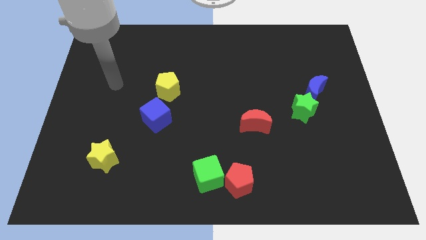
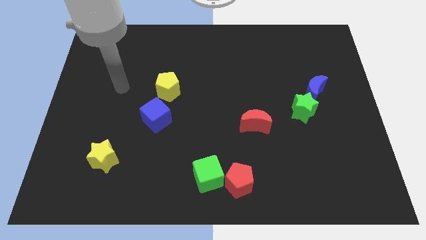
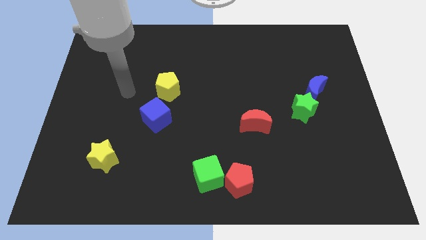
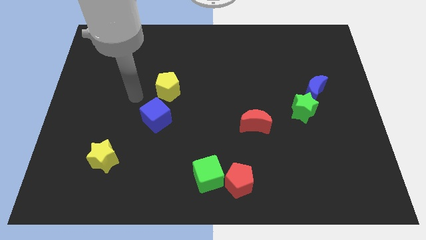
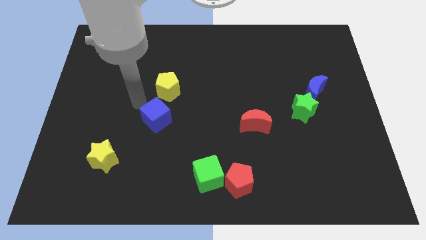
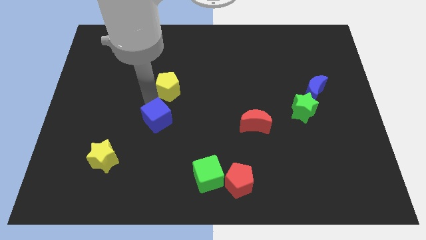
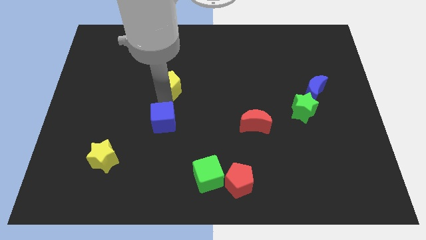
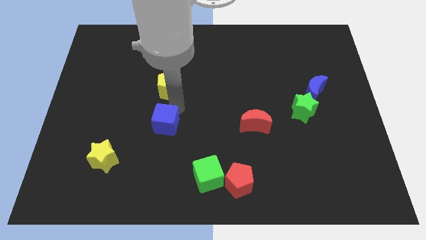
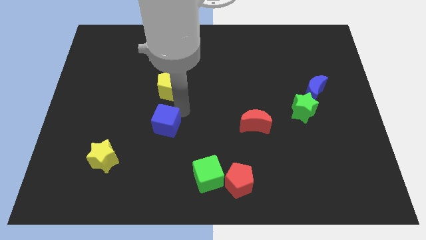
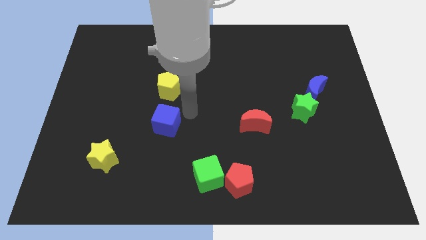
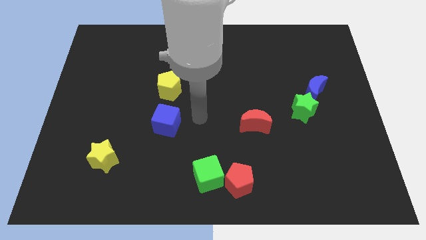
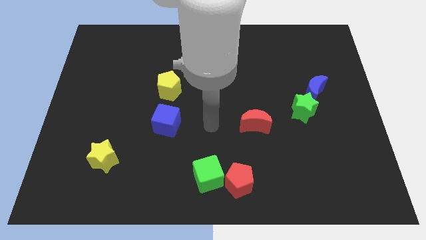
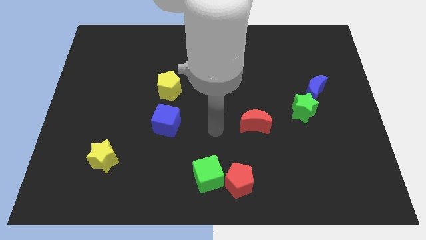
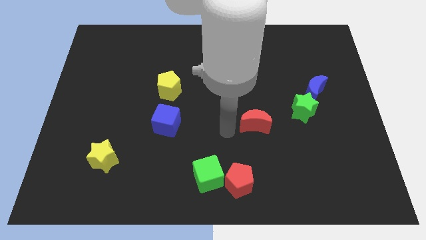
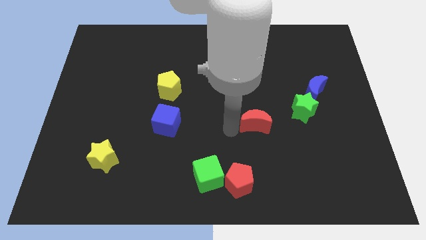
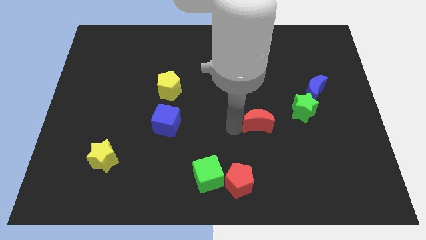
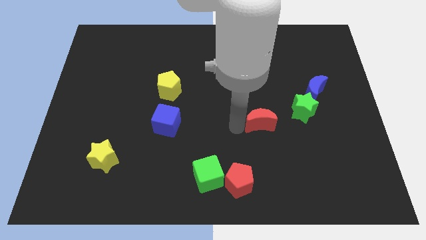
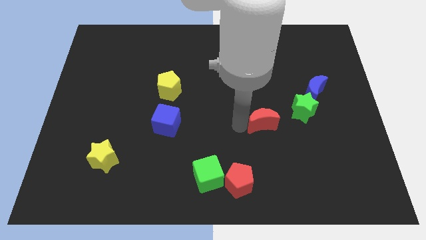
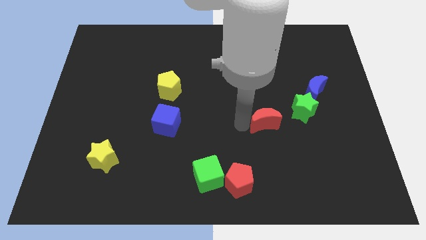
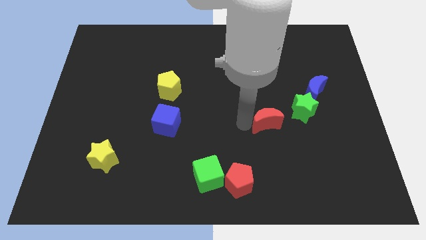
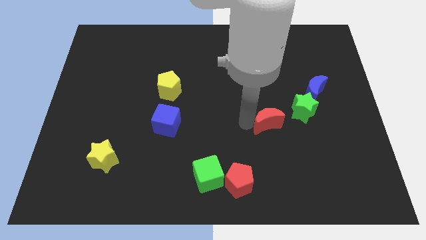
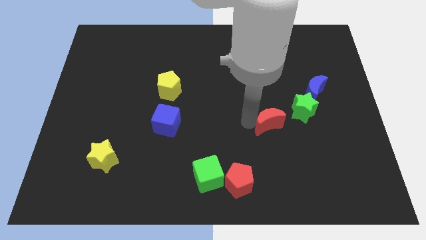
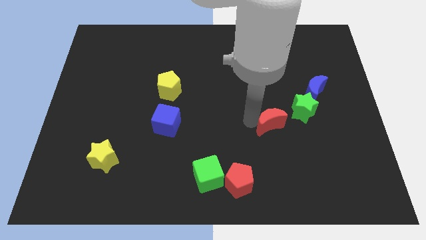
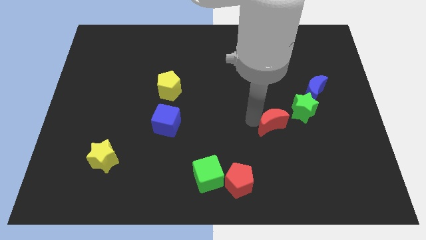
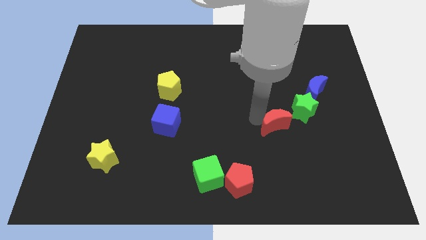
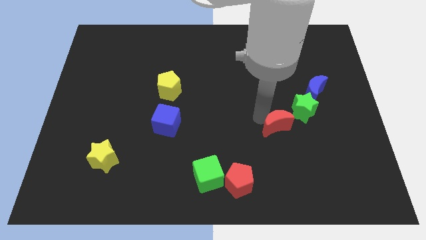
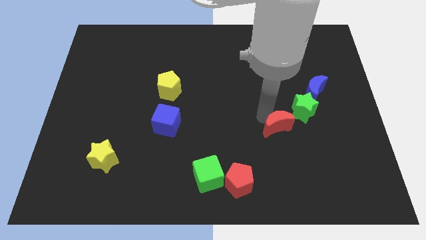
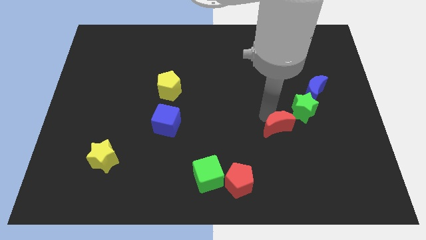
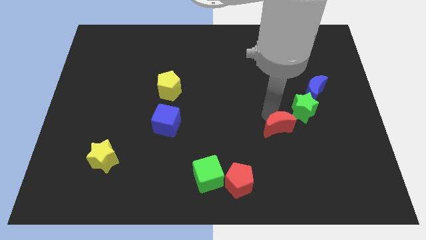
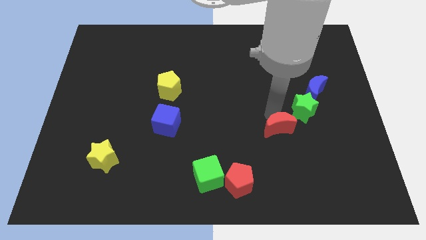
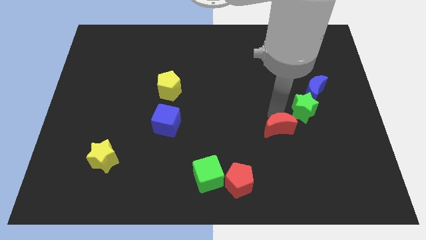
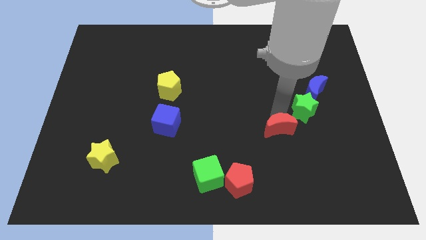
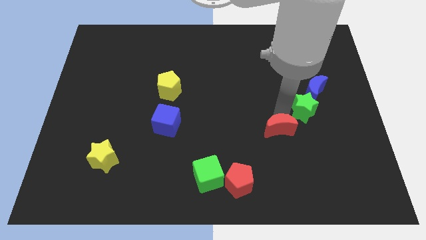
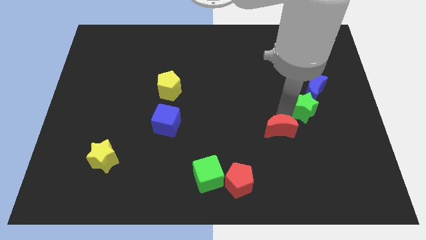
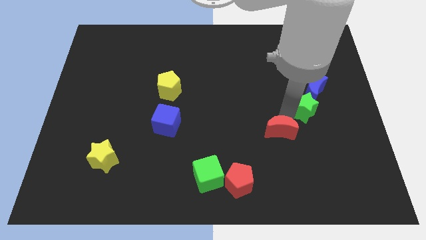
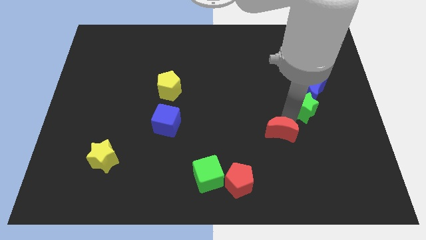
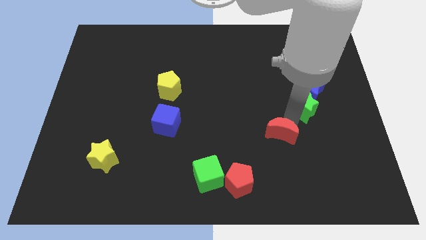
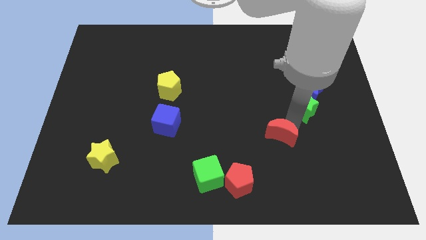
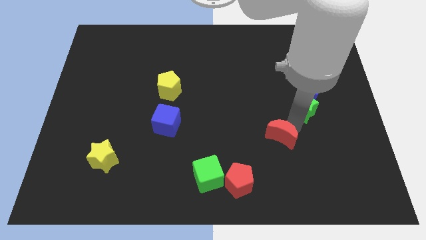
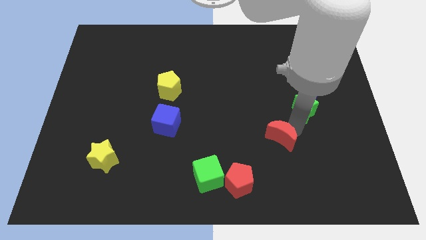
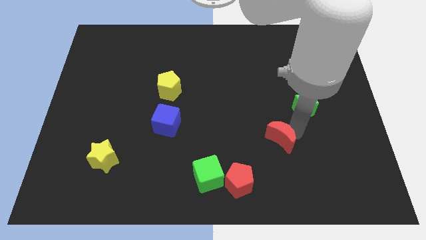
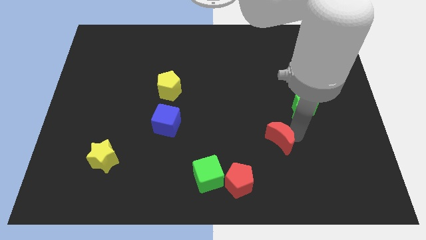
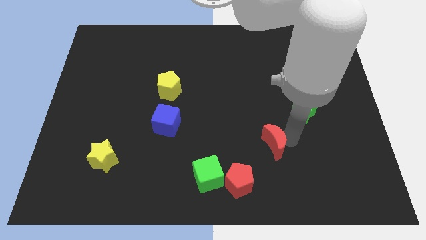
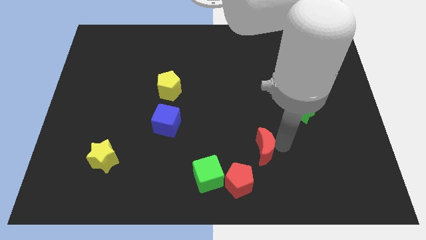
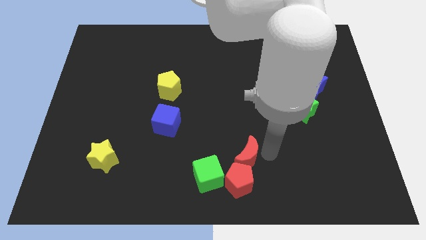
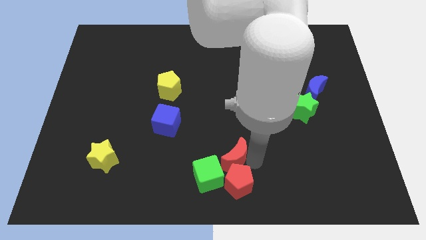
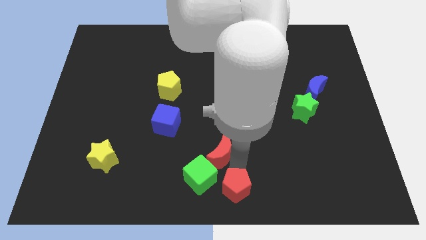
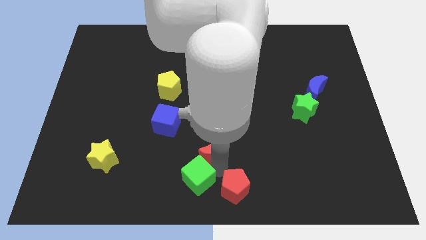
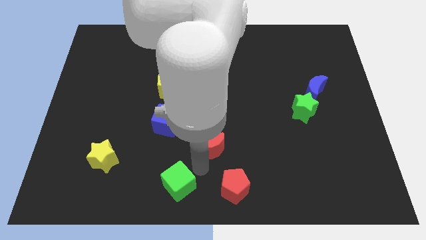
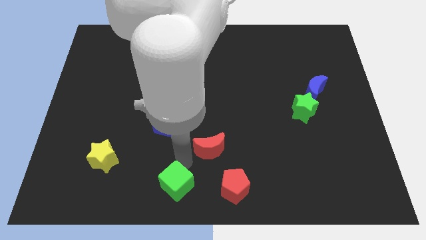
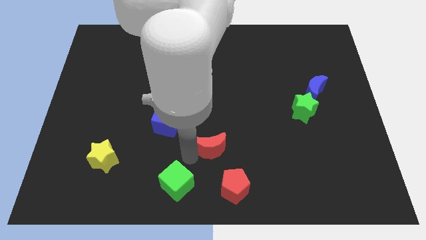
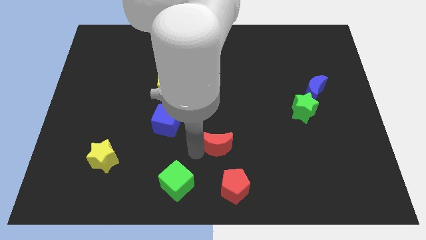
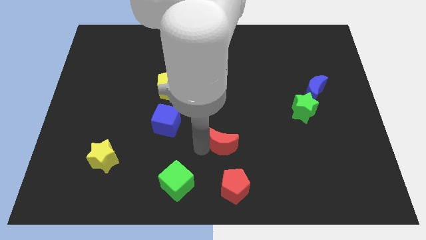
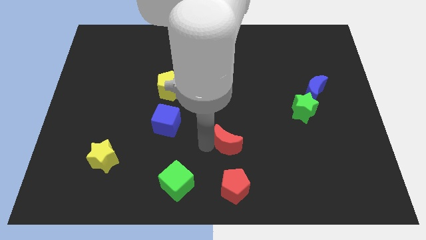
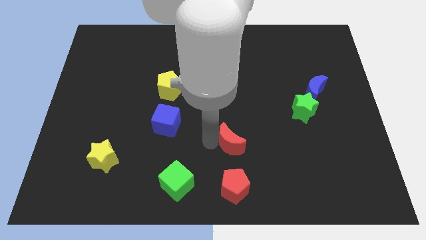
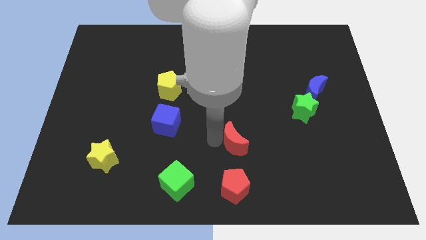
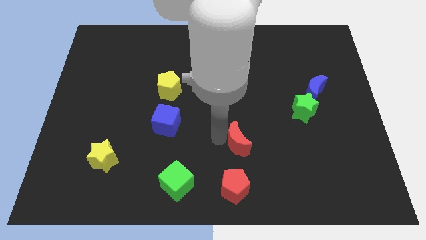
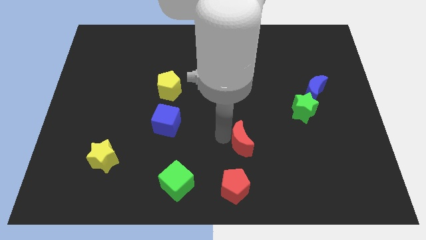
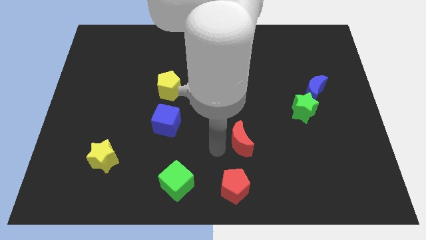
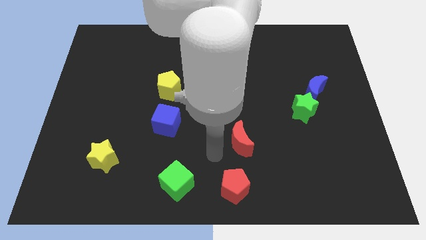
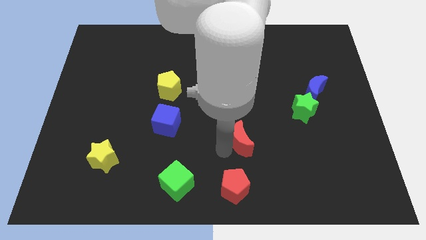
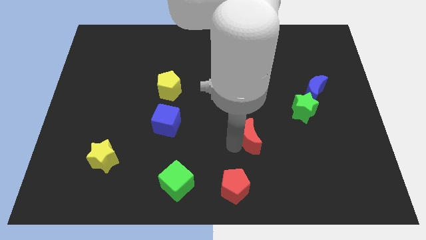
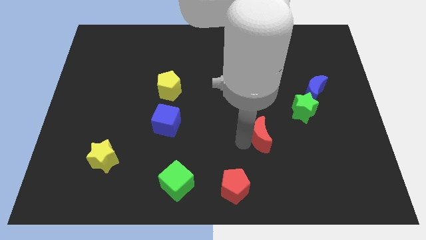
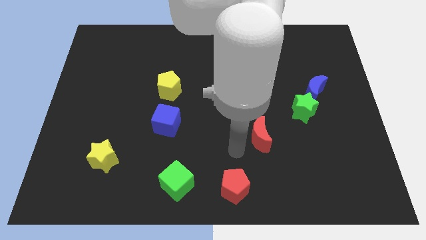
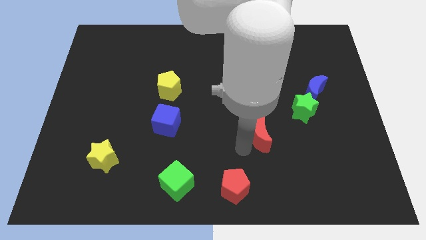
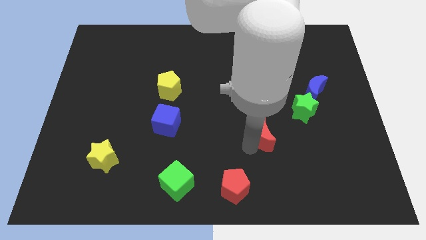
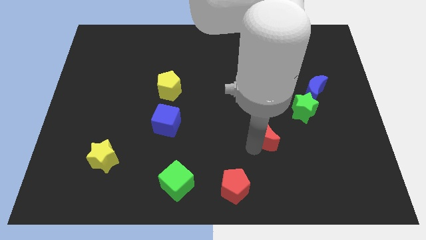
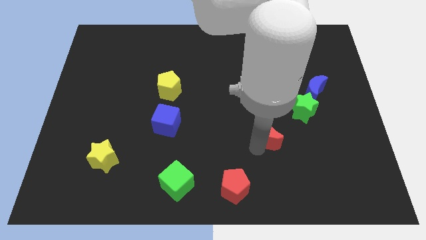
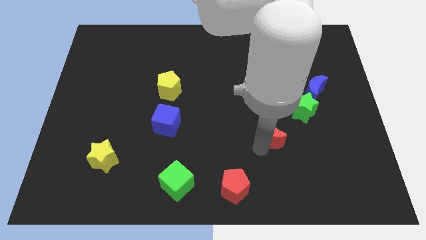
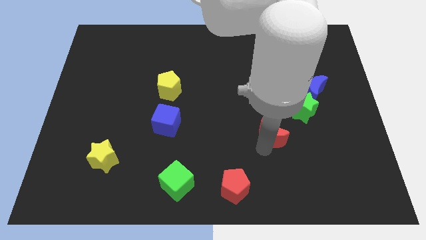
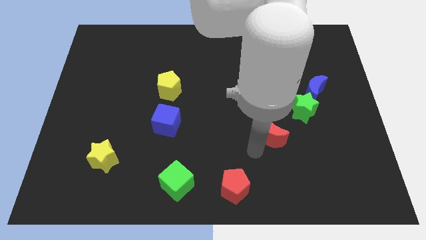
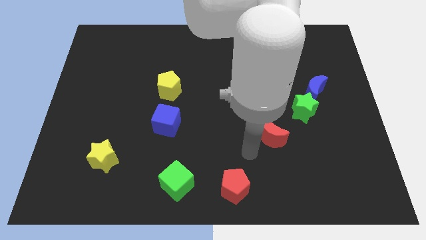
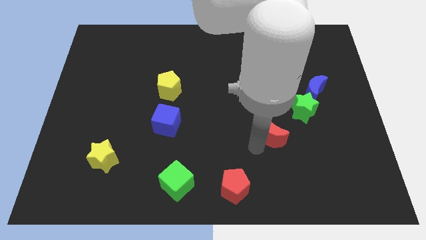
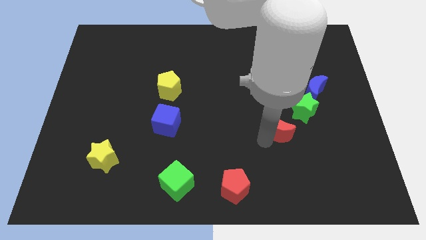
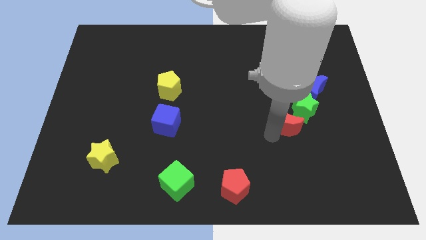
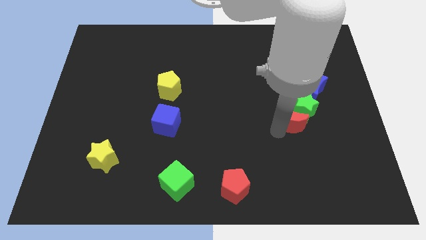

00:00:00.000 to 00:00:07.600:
move the red moon close to the green star
